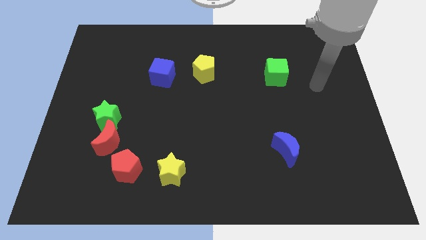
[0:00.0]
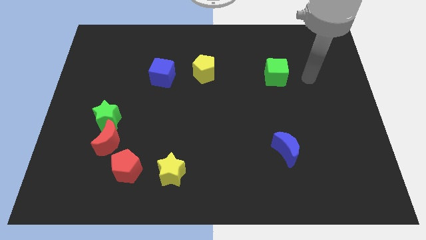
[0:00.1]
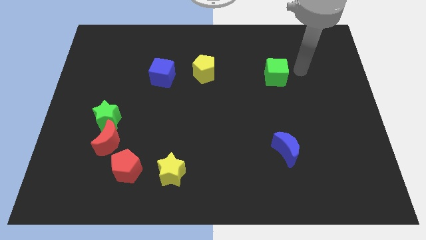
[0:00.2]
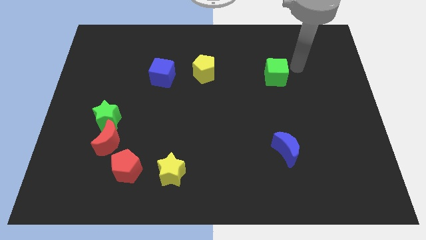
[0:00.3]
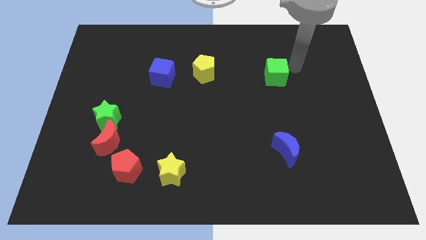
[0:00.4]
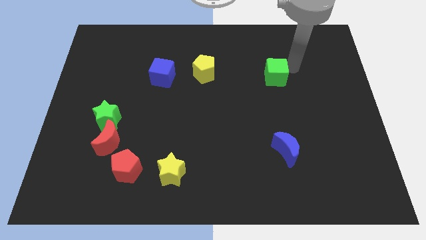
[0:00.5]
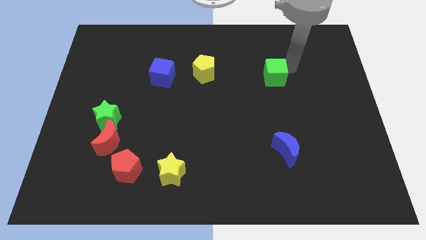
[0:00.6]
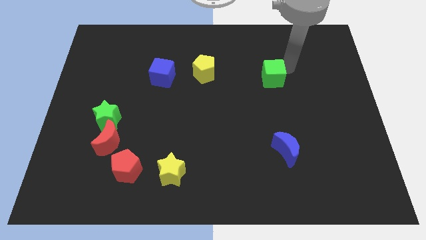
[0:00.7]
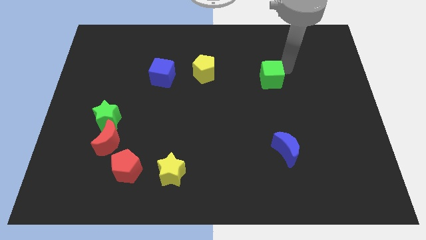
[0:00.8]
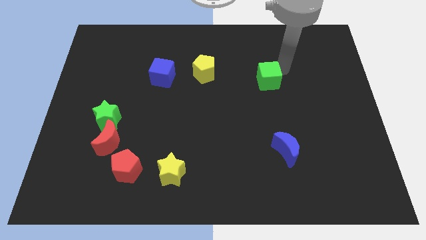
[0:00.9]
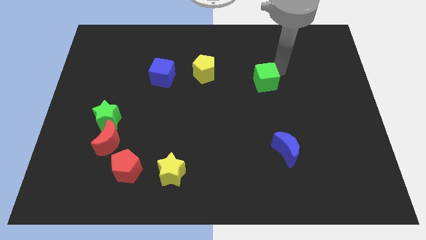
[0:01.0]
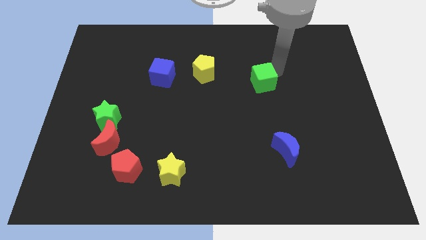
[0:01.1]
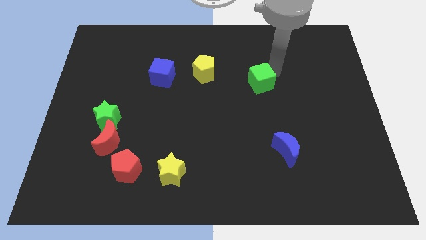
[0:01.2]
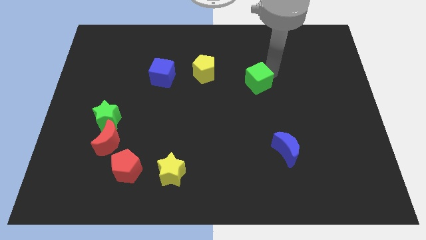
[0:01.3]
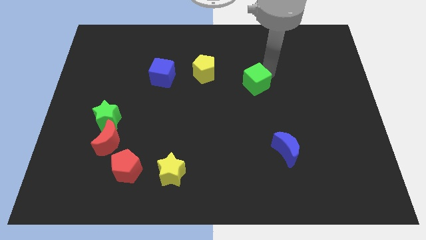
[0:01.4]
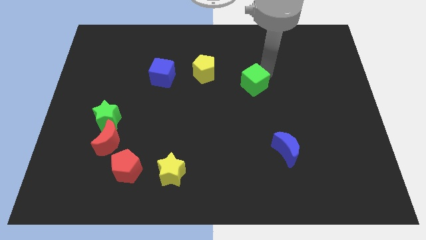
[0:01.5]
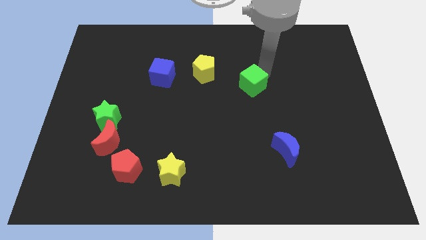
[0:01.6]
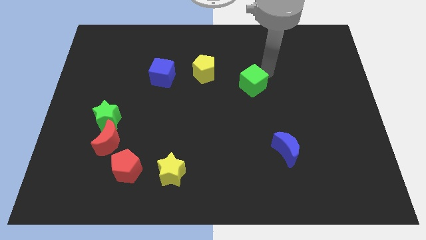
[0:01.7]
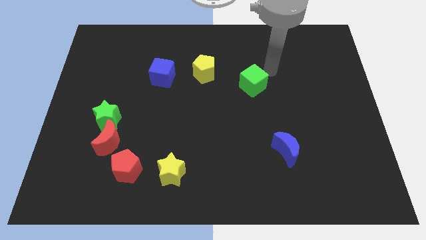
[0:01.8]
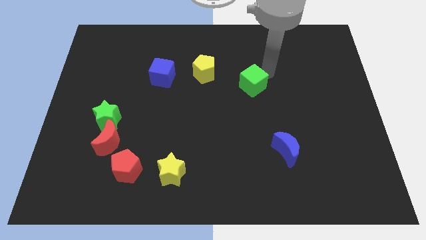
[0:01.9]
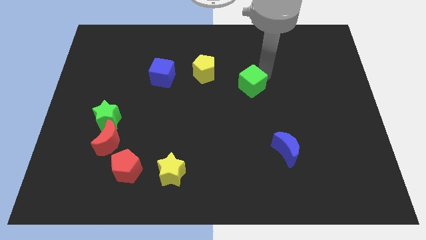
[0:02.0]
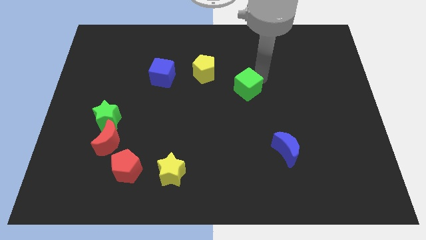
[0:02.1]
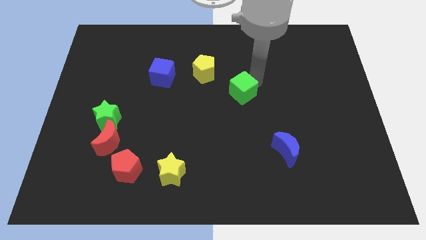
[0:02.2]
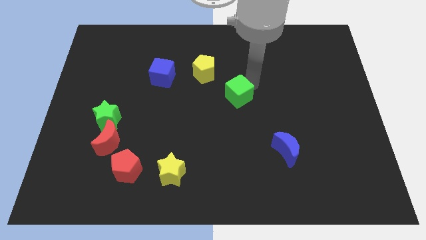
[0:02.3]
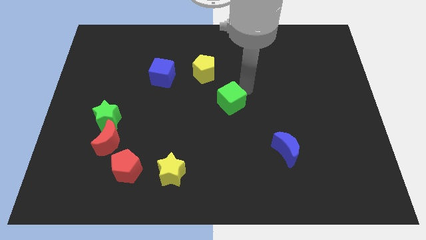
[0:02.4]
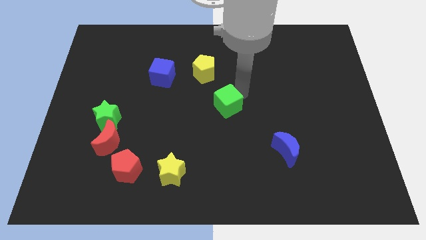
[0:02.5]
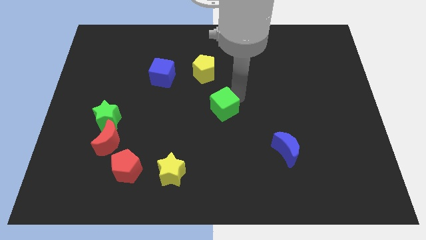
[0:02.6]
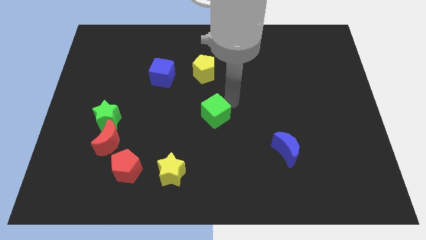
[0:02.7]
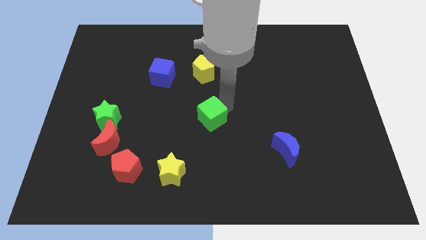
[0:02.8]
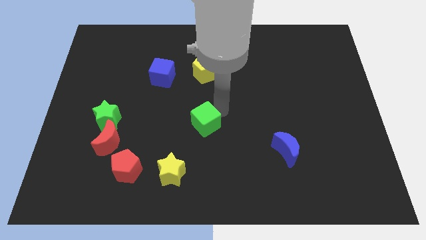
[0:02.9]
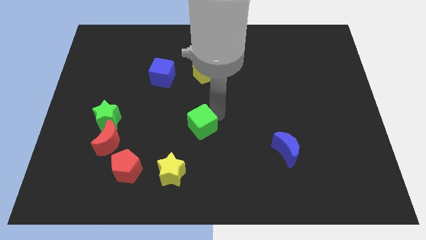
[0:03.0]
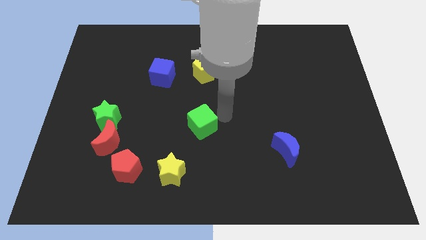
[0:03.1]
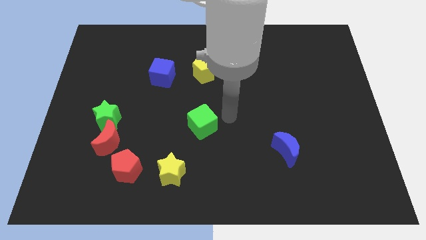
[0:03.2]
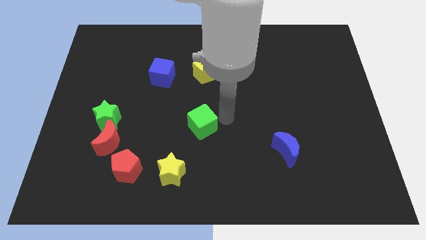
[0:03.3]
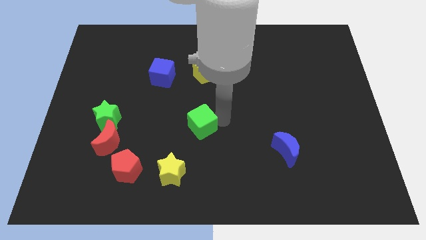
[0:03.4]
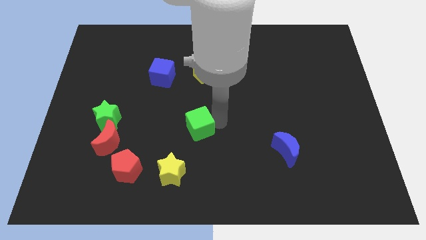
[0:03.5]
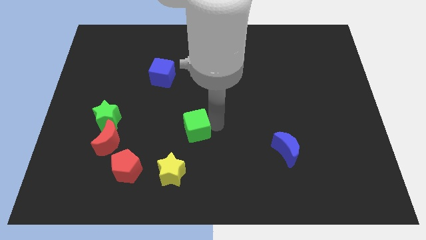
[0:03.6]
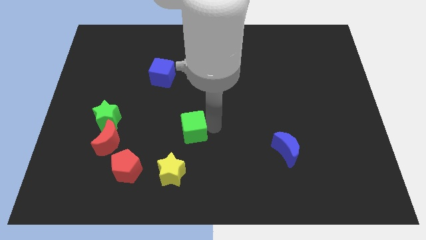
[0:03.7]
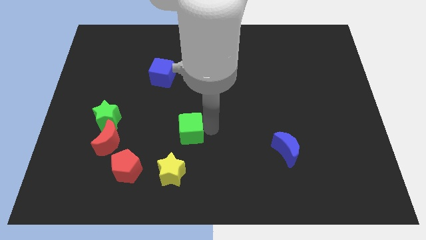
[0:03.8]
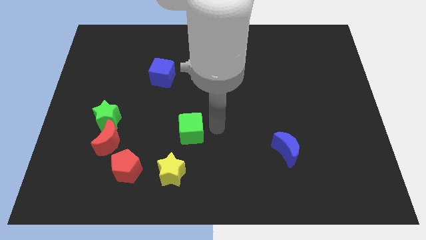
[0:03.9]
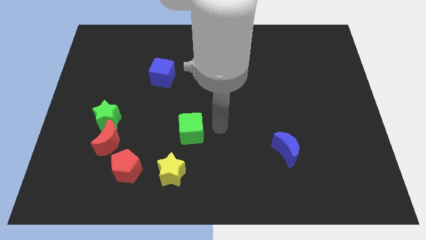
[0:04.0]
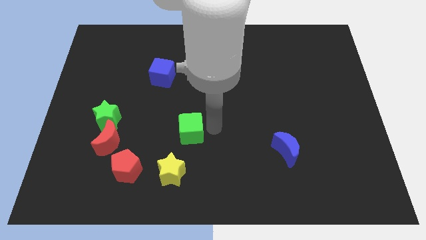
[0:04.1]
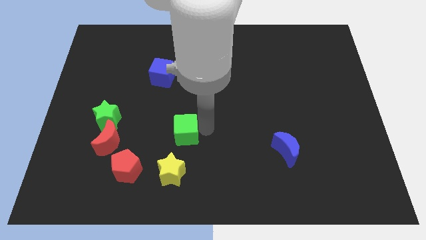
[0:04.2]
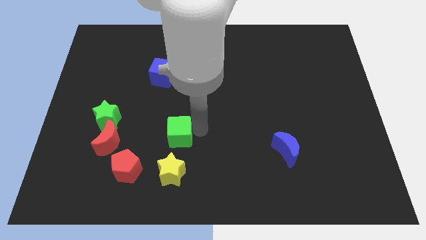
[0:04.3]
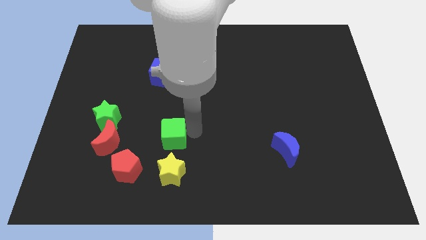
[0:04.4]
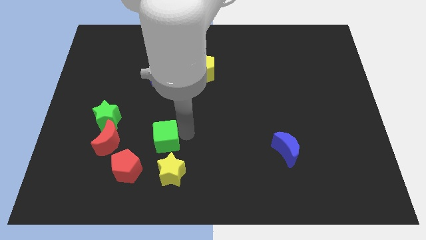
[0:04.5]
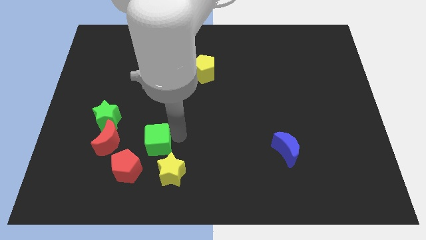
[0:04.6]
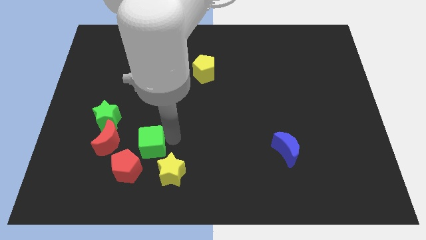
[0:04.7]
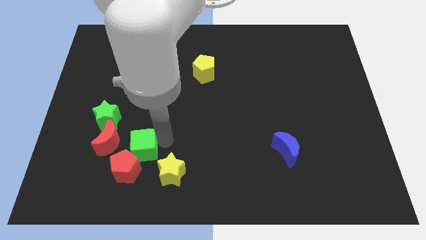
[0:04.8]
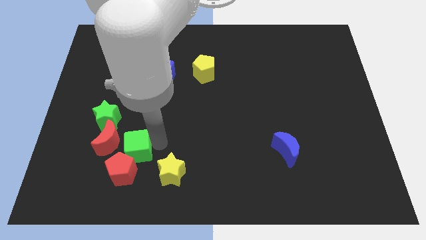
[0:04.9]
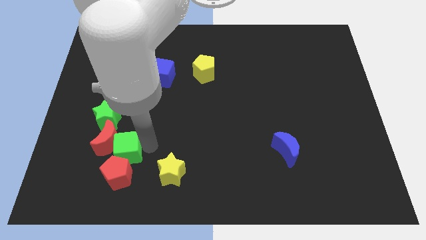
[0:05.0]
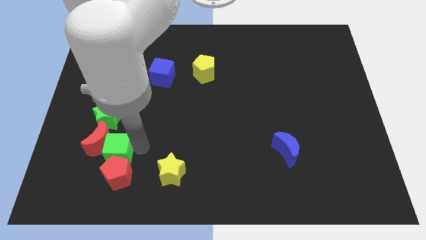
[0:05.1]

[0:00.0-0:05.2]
move the green cube to the bottom of the green star

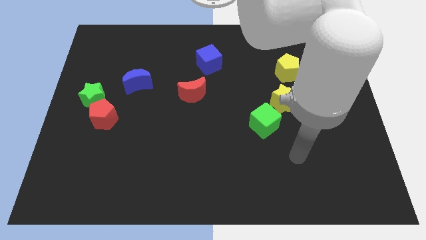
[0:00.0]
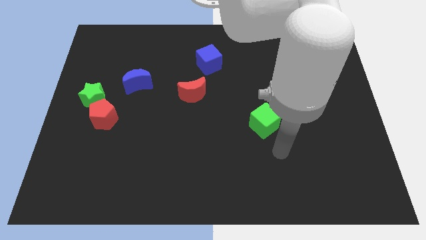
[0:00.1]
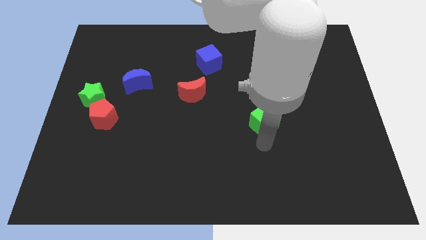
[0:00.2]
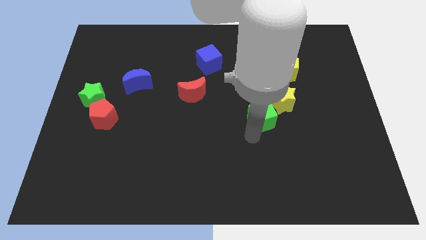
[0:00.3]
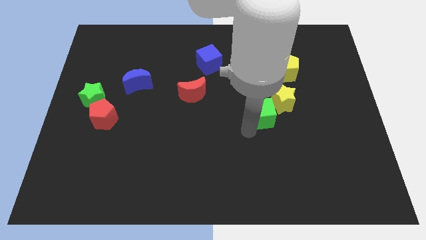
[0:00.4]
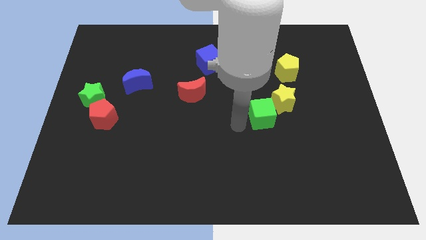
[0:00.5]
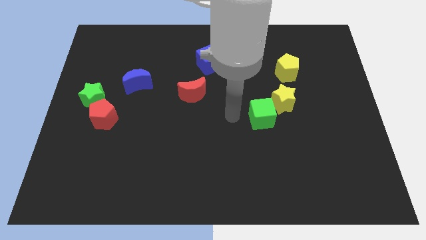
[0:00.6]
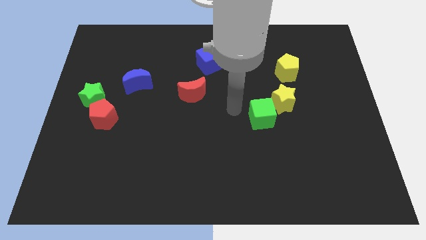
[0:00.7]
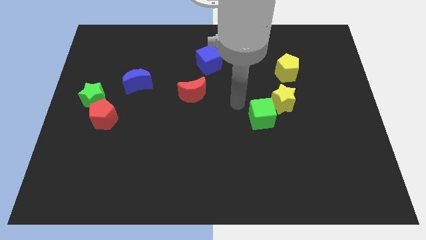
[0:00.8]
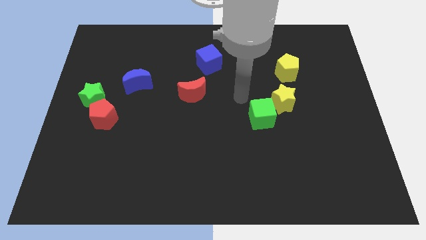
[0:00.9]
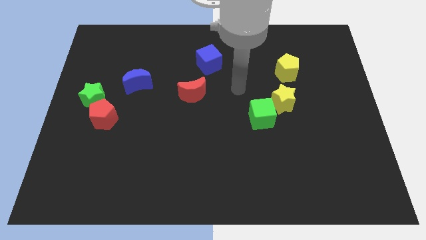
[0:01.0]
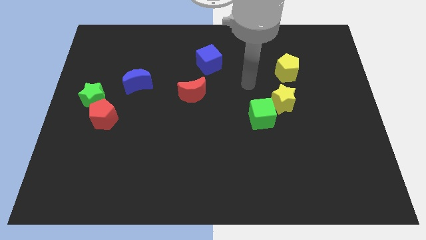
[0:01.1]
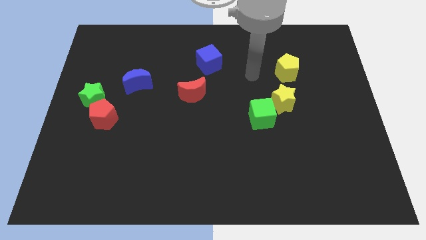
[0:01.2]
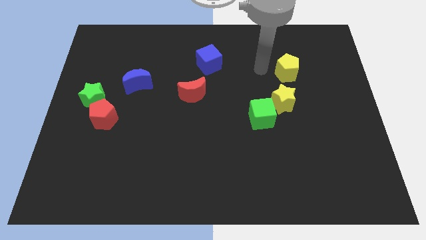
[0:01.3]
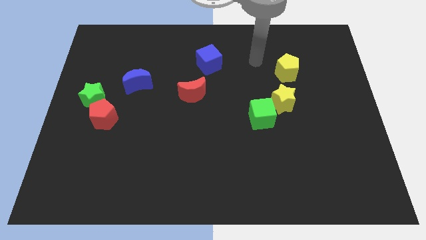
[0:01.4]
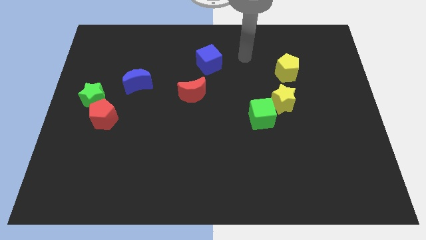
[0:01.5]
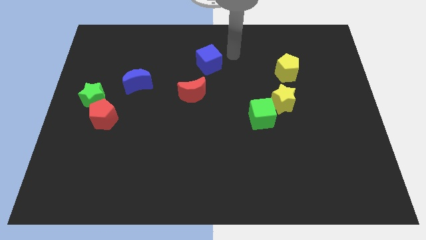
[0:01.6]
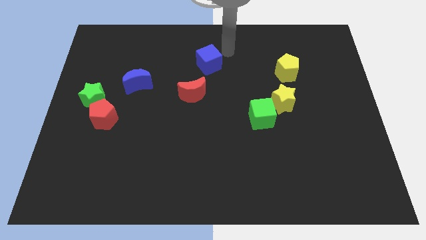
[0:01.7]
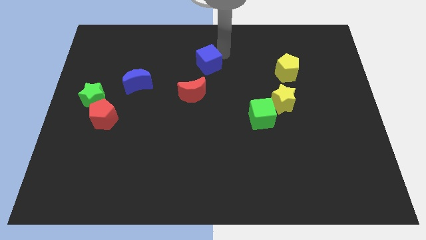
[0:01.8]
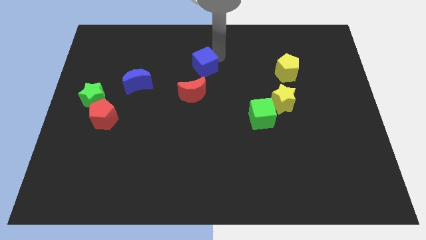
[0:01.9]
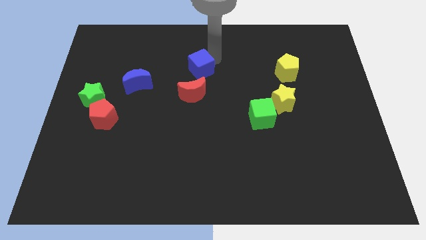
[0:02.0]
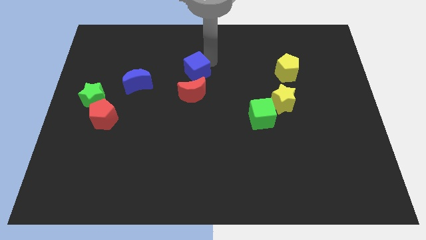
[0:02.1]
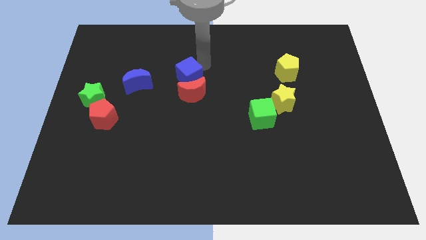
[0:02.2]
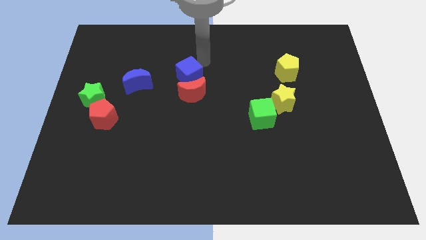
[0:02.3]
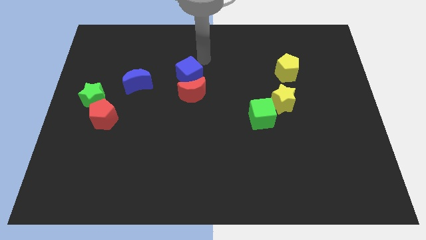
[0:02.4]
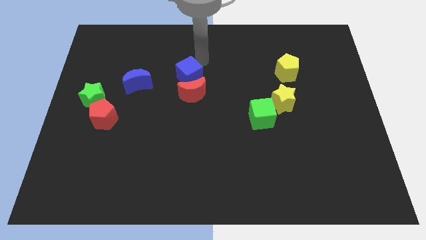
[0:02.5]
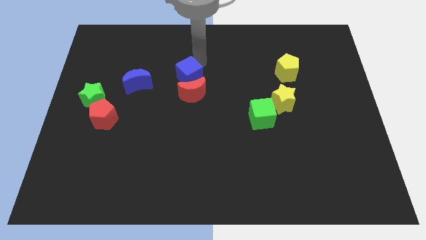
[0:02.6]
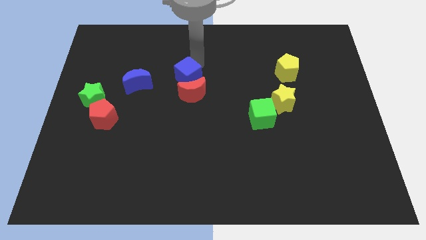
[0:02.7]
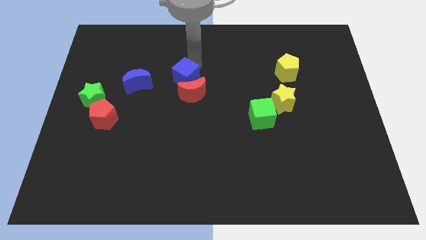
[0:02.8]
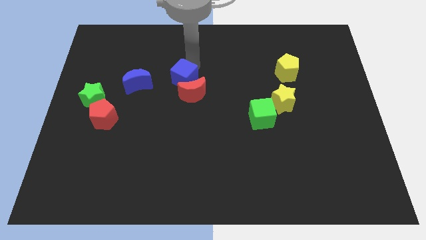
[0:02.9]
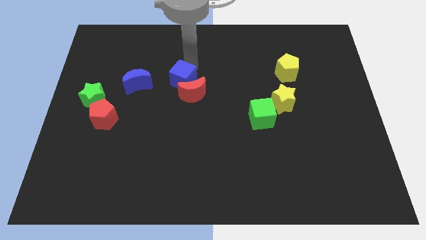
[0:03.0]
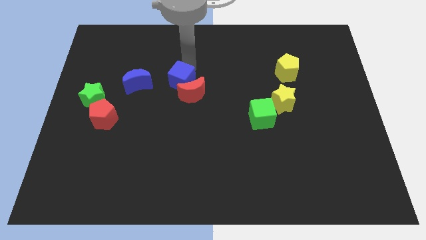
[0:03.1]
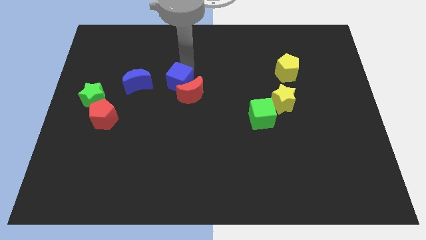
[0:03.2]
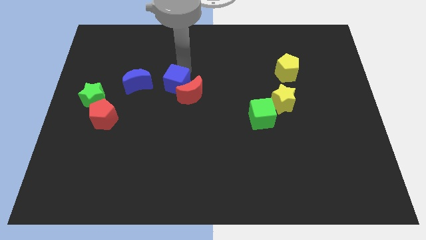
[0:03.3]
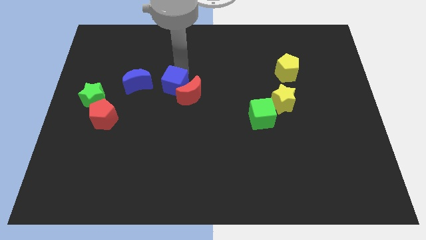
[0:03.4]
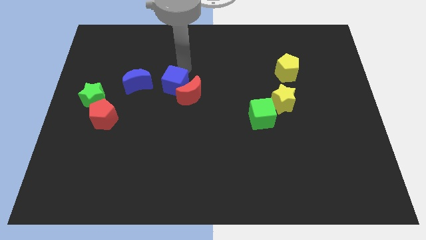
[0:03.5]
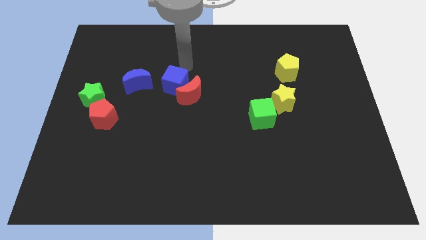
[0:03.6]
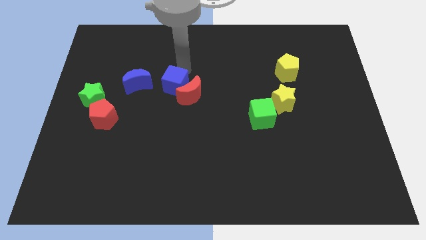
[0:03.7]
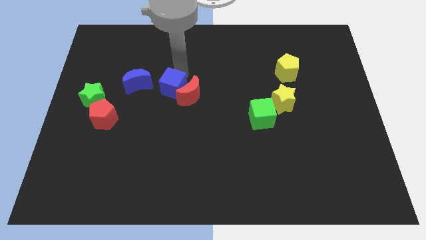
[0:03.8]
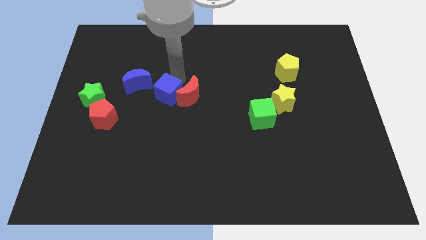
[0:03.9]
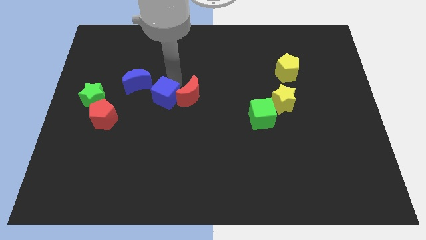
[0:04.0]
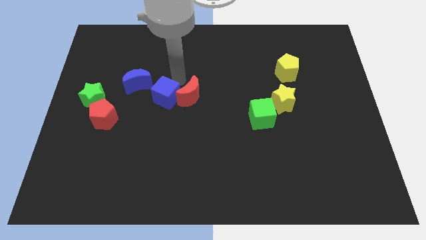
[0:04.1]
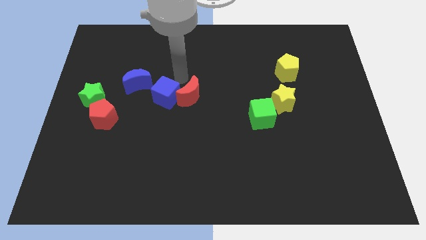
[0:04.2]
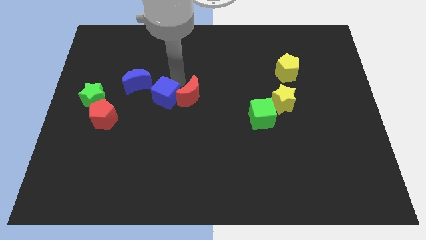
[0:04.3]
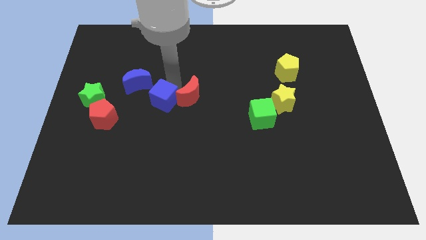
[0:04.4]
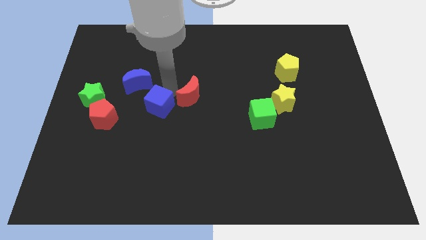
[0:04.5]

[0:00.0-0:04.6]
move the blue cube to the right side of the red pentagon
